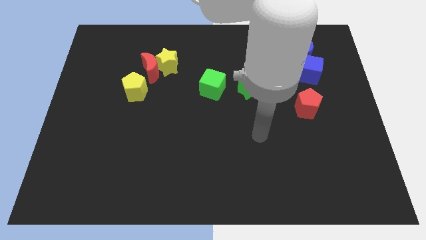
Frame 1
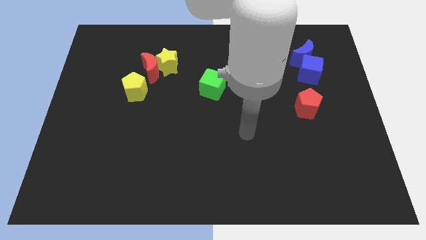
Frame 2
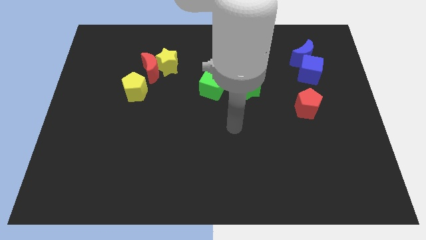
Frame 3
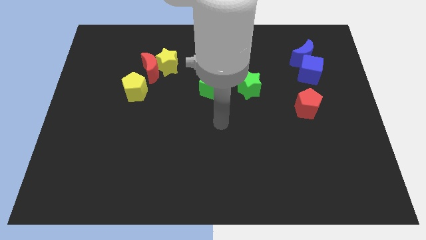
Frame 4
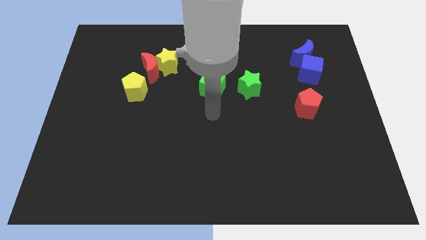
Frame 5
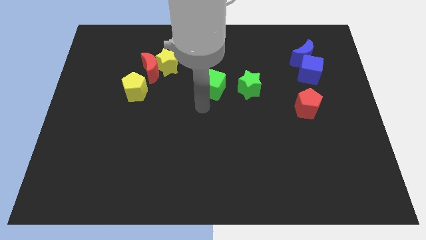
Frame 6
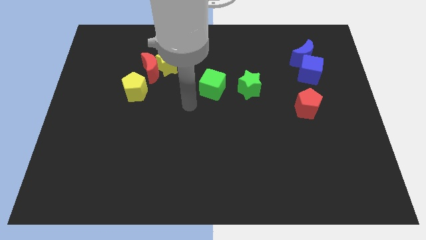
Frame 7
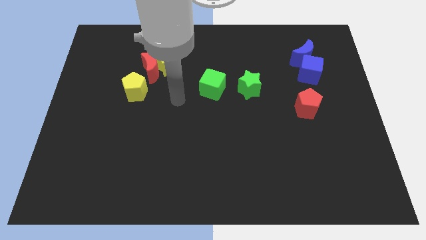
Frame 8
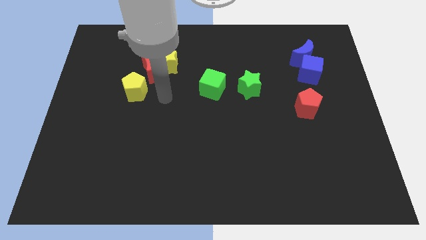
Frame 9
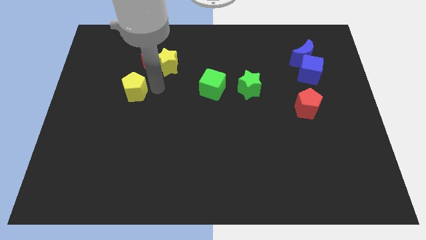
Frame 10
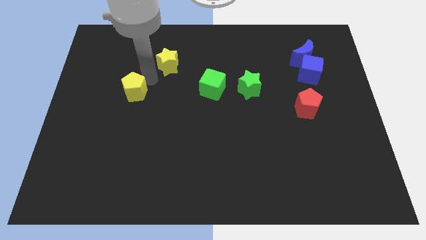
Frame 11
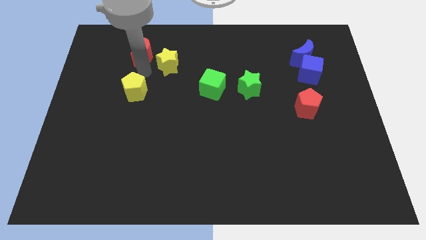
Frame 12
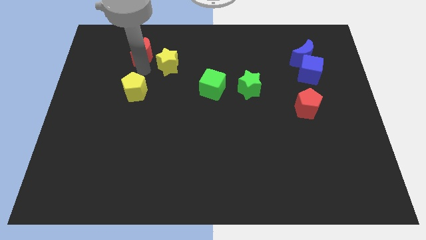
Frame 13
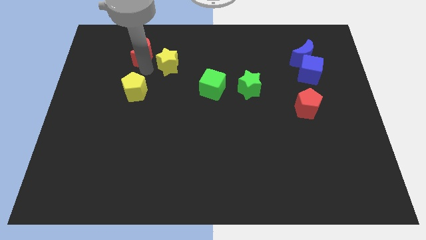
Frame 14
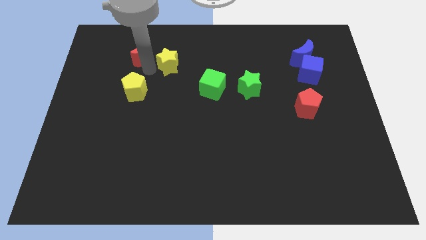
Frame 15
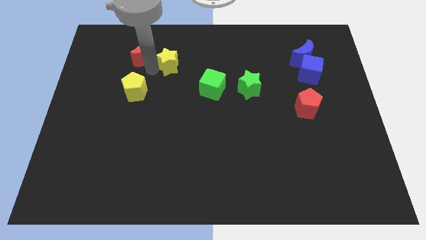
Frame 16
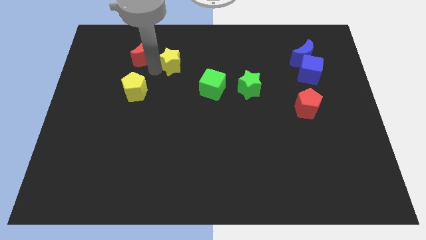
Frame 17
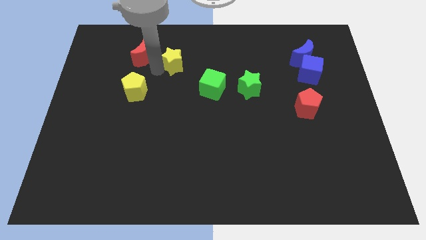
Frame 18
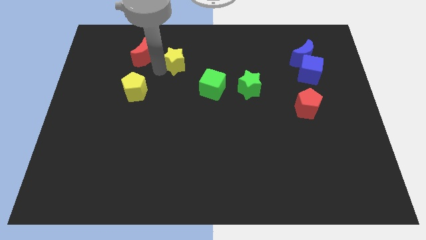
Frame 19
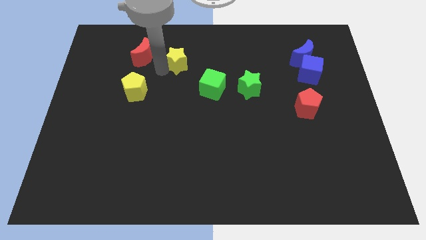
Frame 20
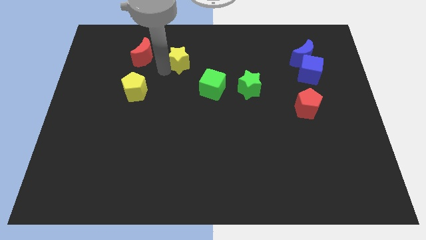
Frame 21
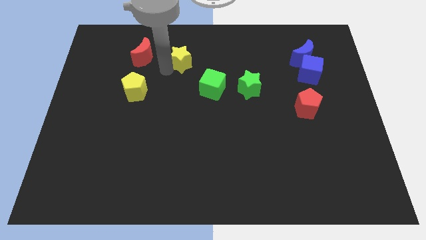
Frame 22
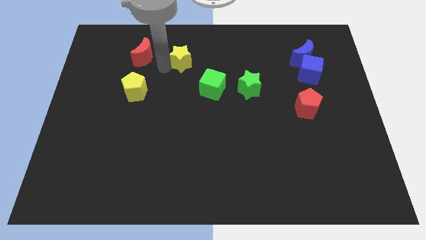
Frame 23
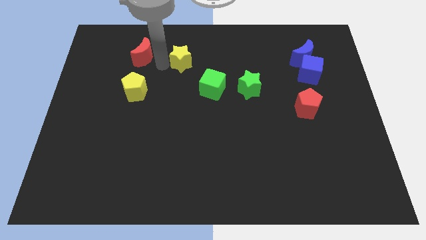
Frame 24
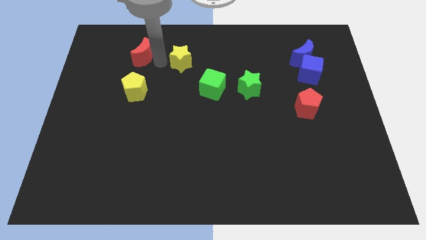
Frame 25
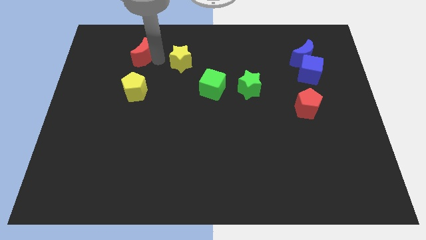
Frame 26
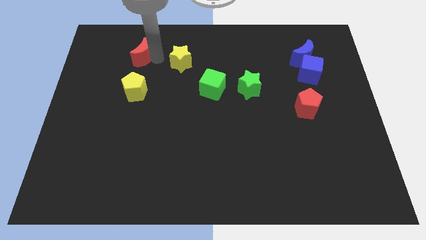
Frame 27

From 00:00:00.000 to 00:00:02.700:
move the yellow star away from the red moon

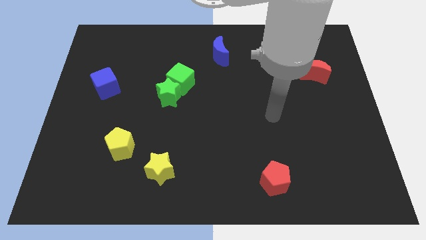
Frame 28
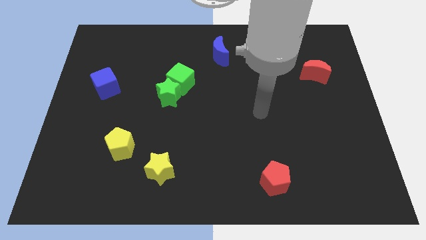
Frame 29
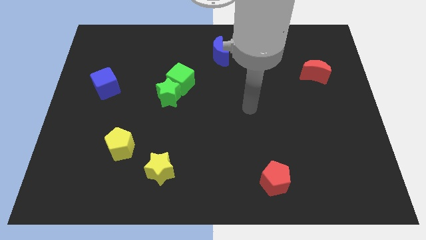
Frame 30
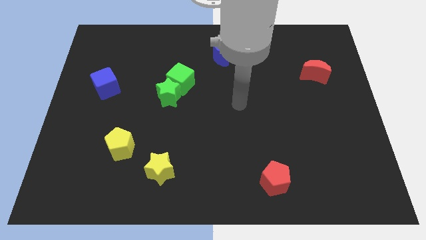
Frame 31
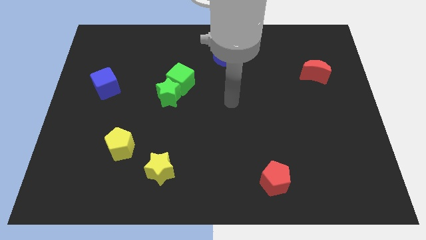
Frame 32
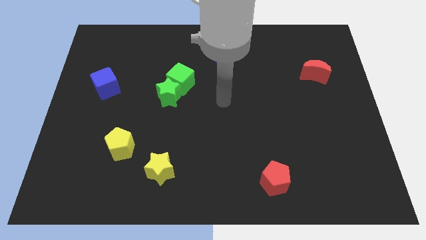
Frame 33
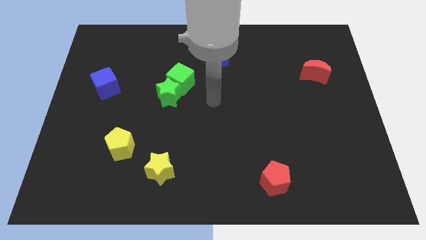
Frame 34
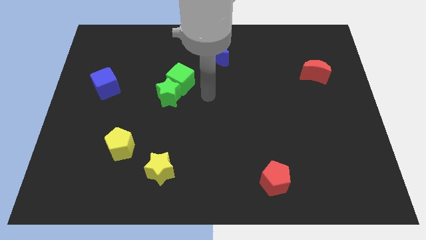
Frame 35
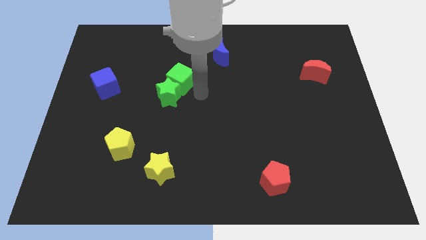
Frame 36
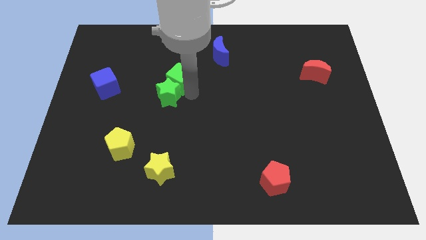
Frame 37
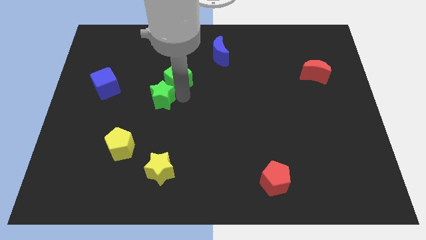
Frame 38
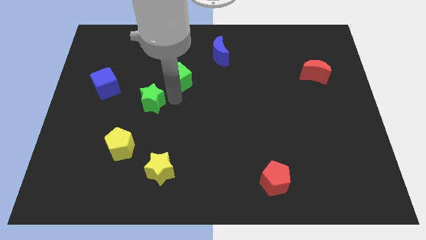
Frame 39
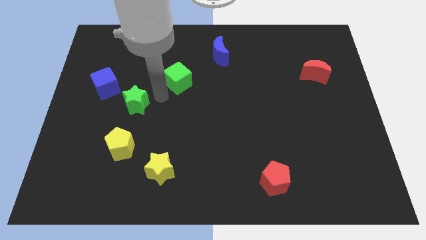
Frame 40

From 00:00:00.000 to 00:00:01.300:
move the green cube away from the green star

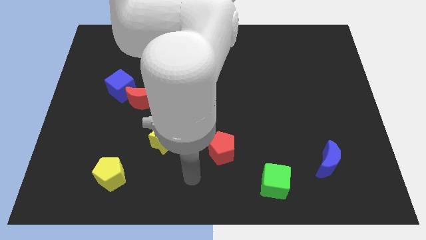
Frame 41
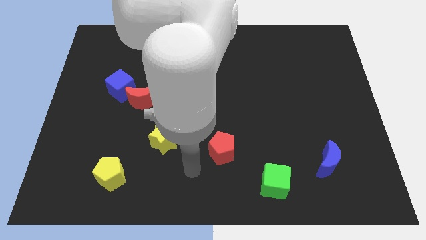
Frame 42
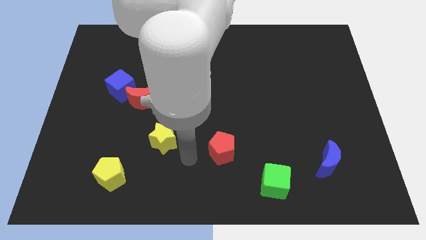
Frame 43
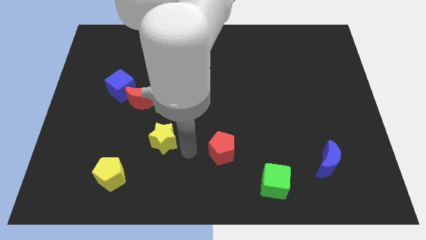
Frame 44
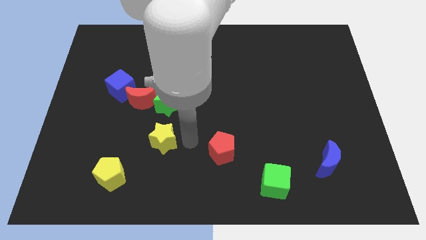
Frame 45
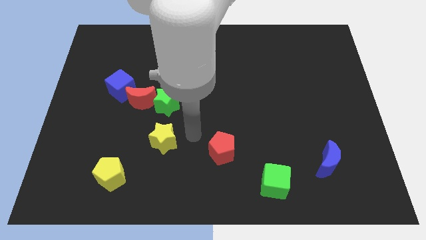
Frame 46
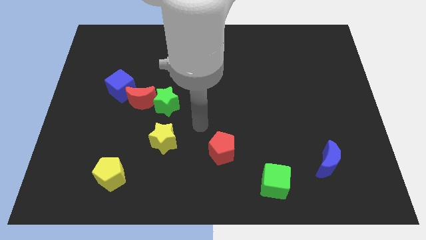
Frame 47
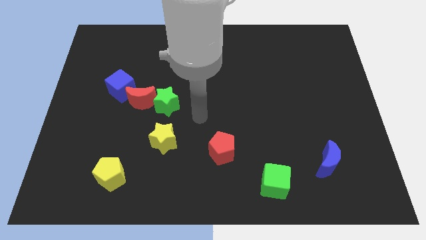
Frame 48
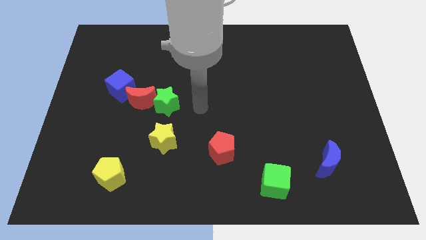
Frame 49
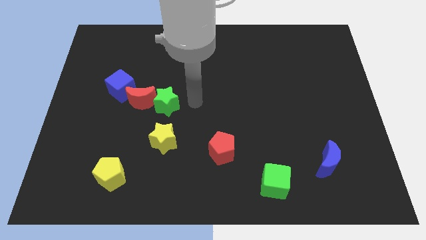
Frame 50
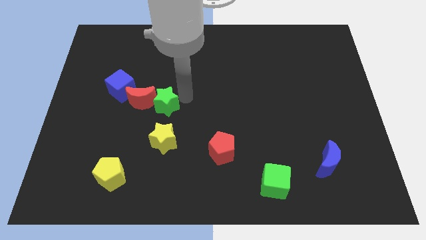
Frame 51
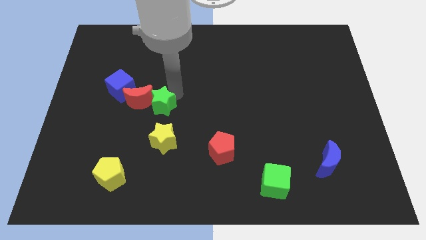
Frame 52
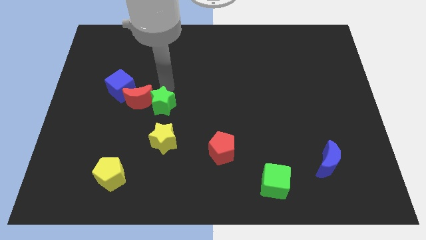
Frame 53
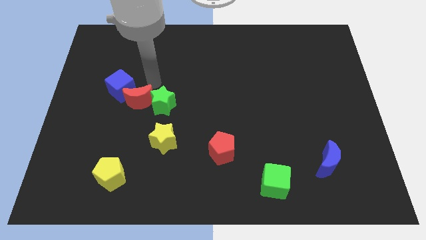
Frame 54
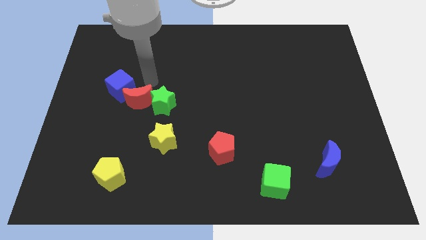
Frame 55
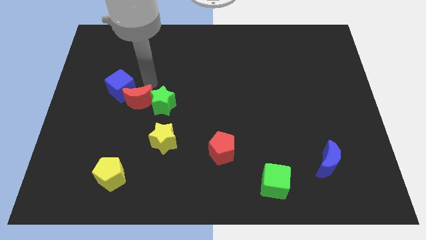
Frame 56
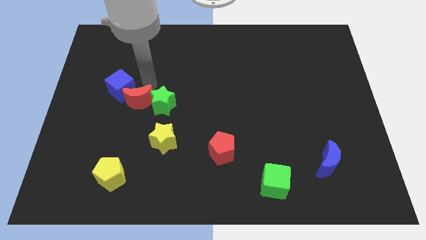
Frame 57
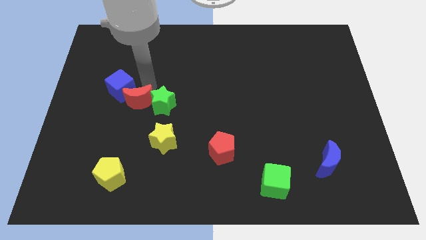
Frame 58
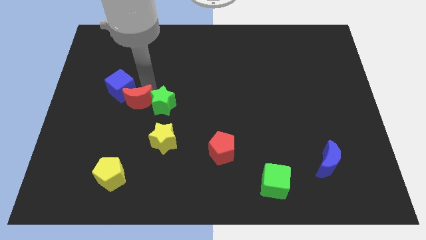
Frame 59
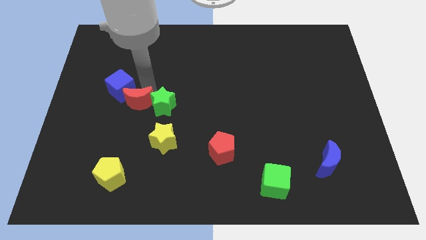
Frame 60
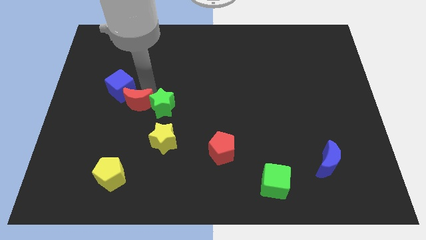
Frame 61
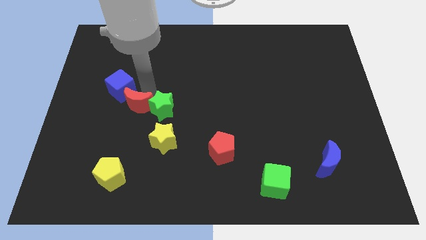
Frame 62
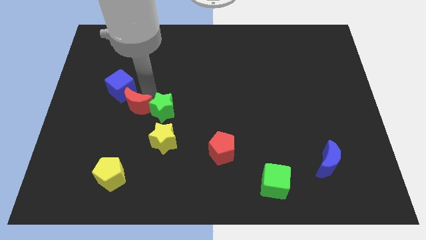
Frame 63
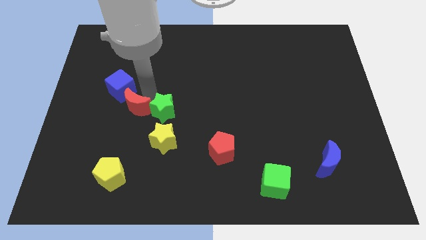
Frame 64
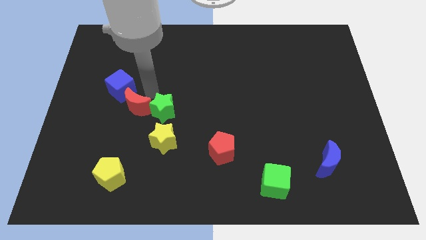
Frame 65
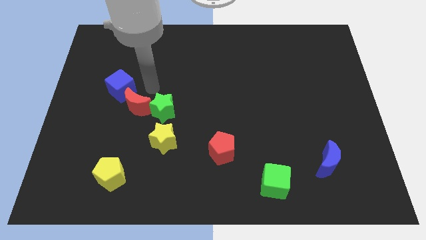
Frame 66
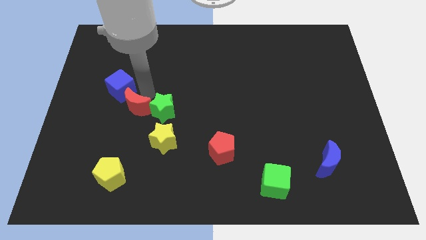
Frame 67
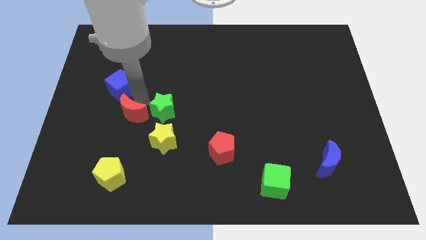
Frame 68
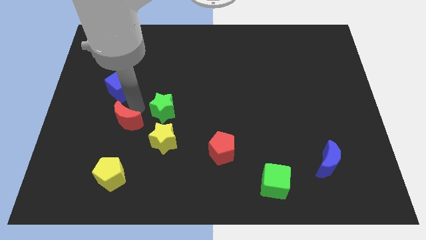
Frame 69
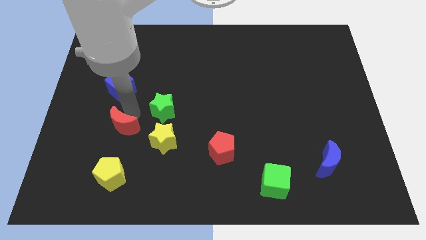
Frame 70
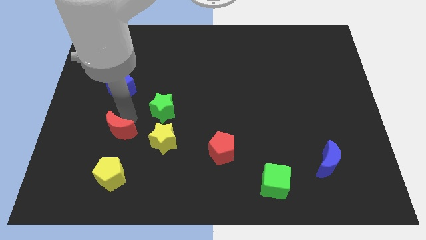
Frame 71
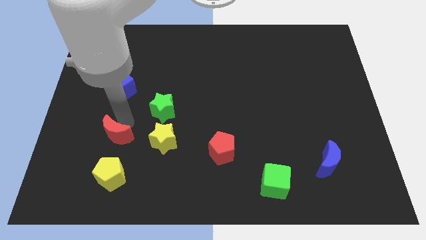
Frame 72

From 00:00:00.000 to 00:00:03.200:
move the red moon away from the green star and blue cube

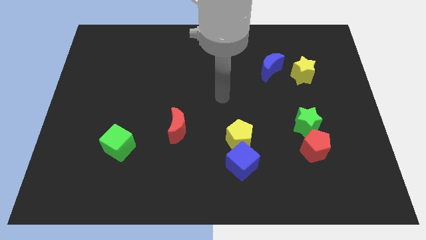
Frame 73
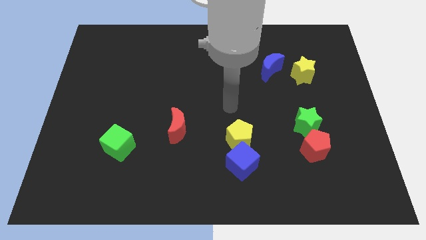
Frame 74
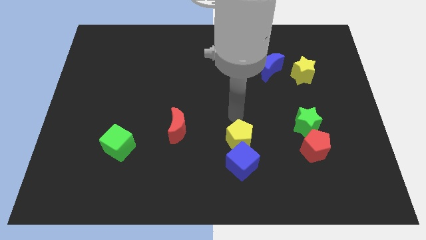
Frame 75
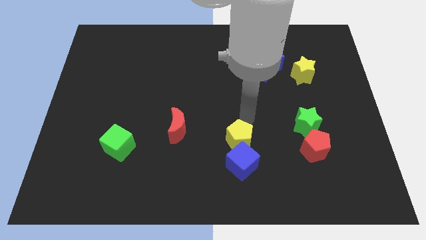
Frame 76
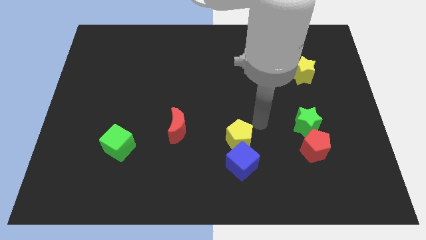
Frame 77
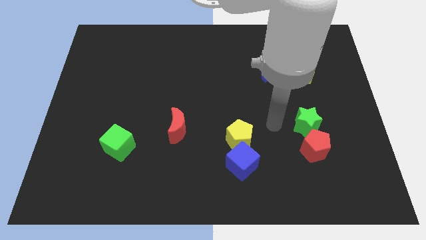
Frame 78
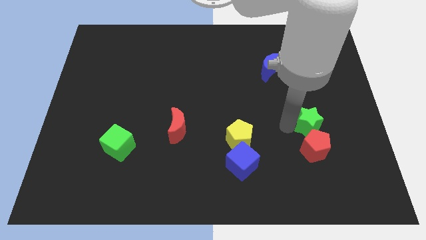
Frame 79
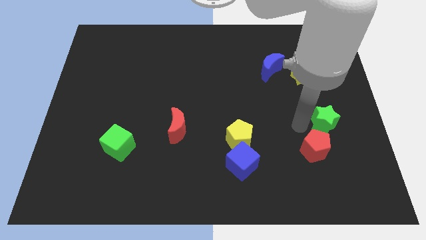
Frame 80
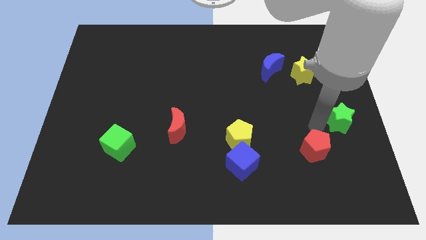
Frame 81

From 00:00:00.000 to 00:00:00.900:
separate the red pentagon from the green star

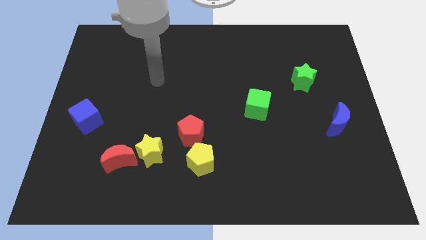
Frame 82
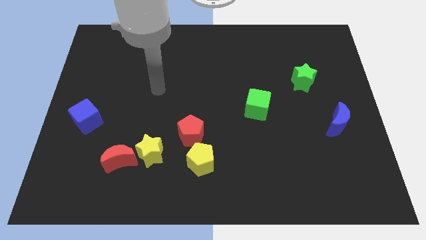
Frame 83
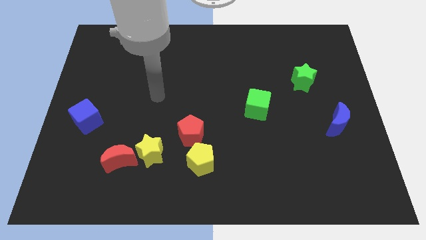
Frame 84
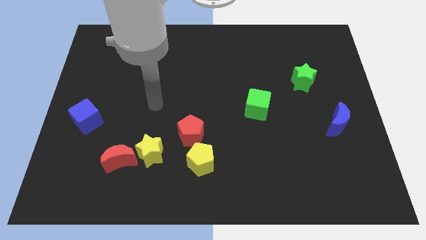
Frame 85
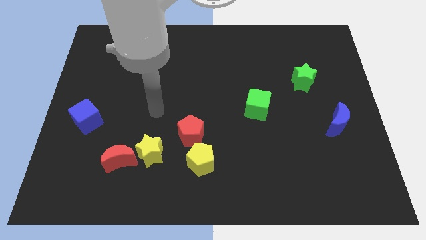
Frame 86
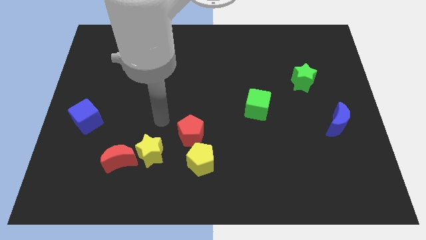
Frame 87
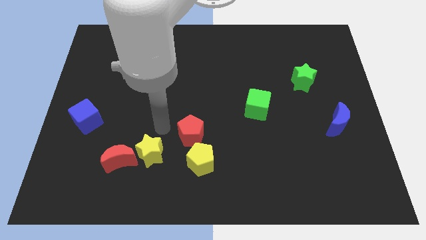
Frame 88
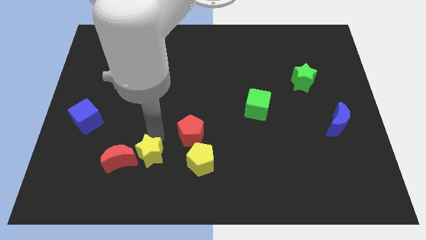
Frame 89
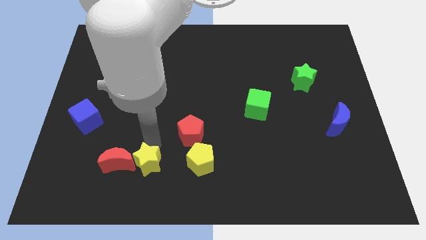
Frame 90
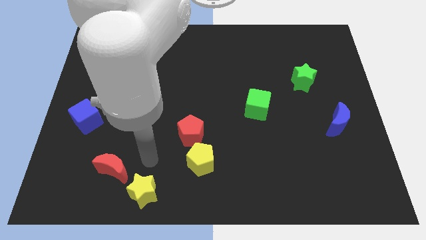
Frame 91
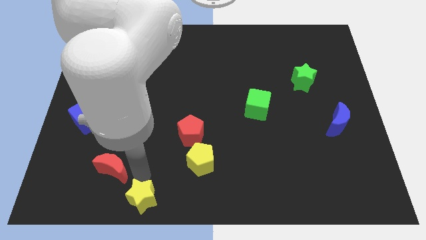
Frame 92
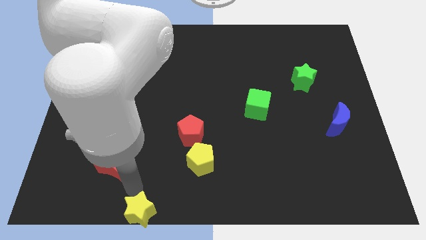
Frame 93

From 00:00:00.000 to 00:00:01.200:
separate the red moon from the yellow star

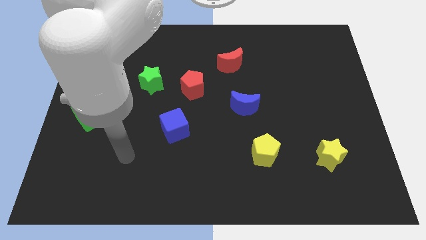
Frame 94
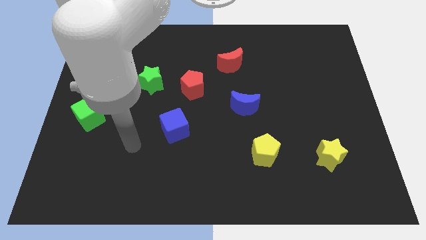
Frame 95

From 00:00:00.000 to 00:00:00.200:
pull the red pentagon apart from the green star
